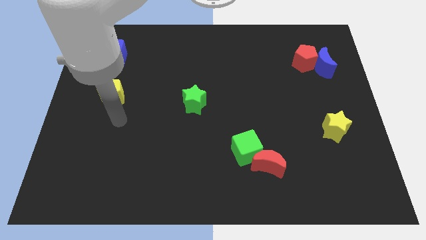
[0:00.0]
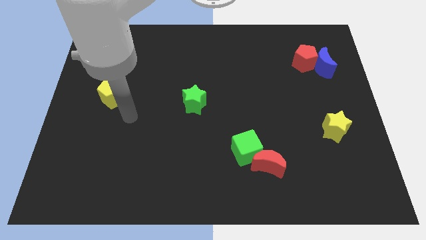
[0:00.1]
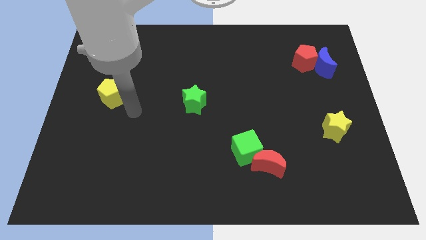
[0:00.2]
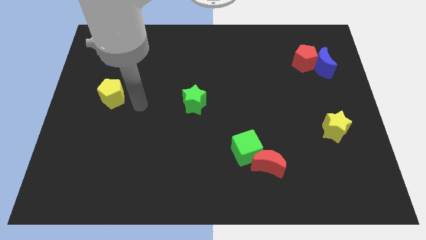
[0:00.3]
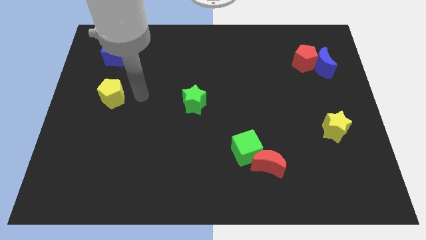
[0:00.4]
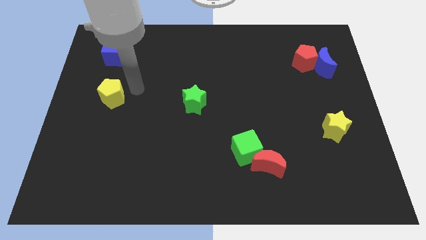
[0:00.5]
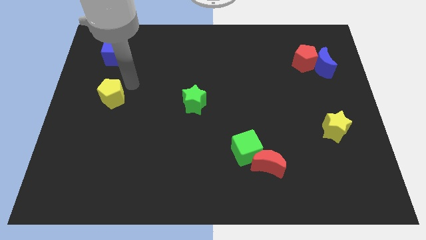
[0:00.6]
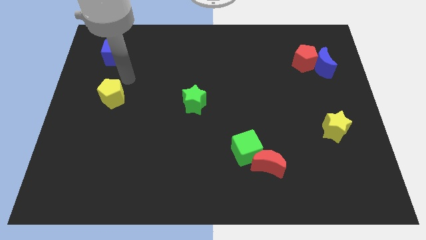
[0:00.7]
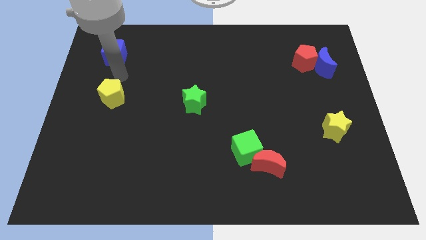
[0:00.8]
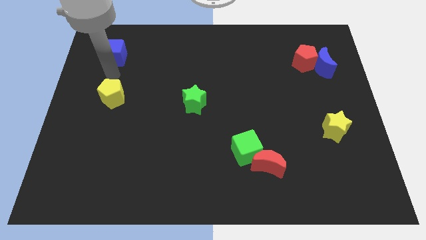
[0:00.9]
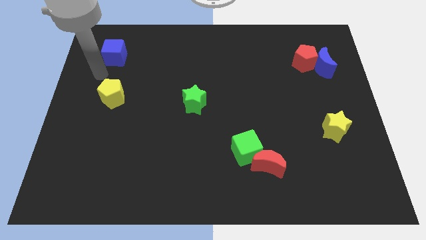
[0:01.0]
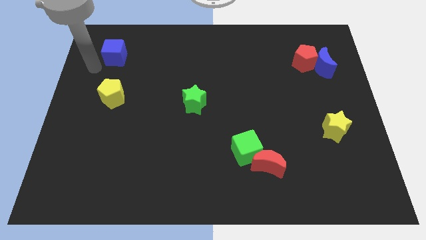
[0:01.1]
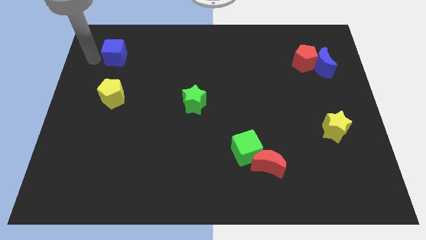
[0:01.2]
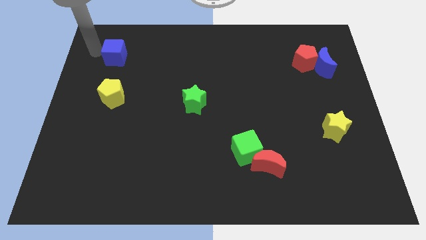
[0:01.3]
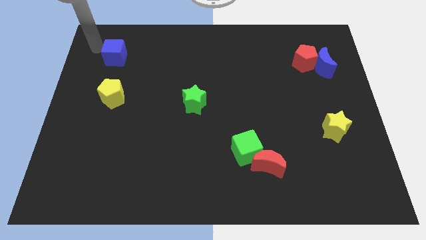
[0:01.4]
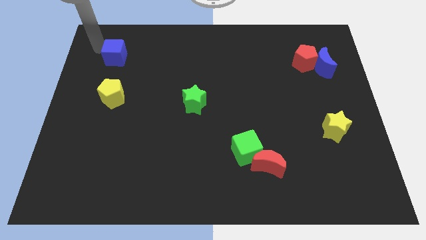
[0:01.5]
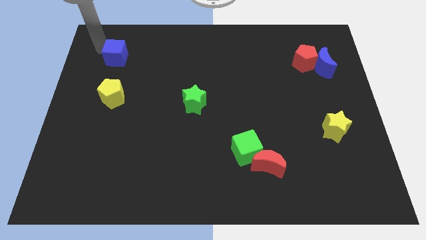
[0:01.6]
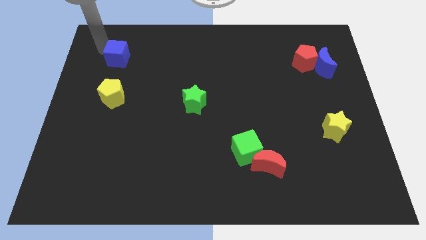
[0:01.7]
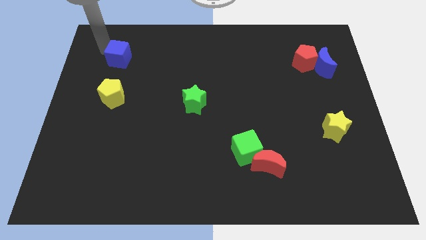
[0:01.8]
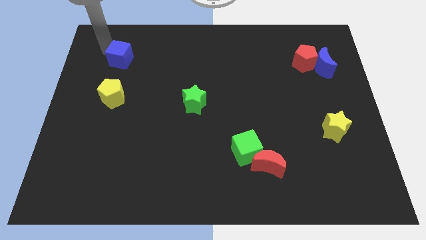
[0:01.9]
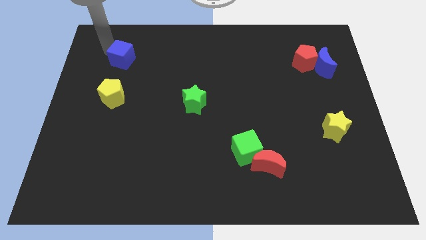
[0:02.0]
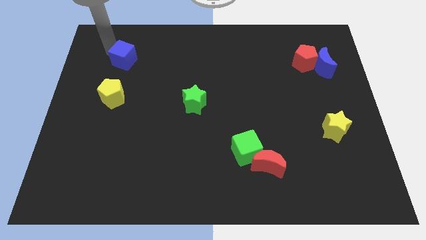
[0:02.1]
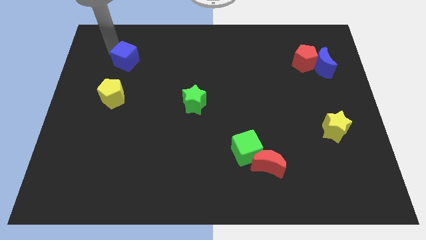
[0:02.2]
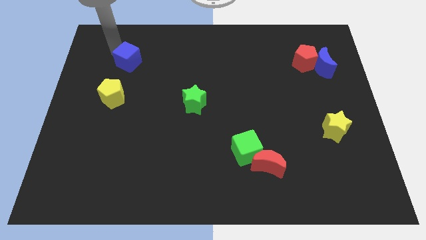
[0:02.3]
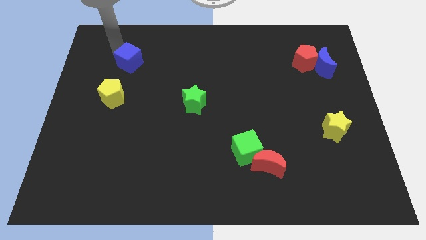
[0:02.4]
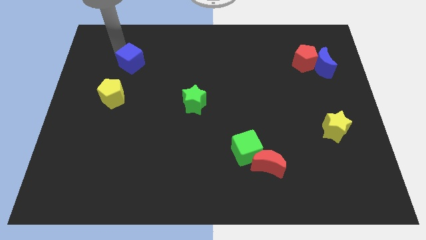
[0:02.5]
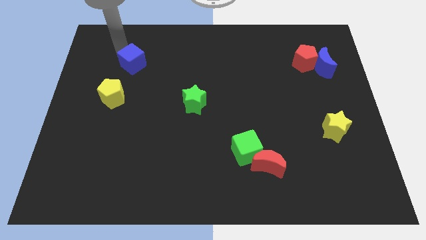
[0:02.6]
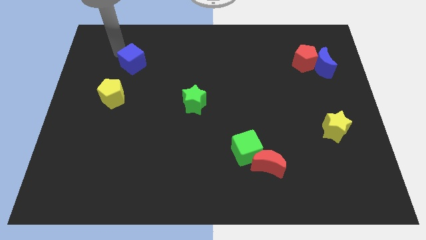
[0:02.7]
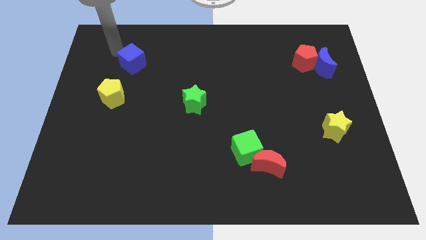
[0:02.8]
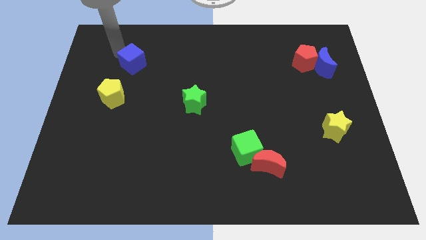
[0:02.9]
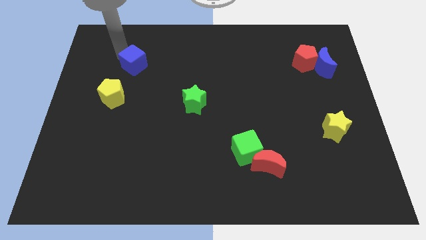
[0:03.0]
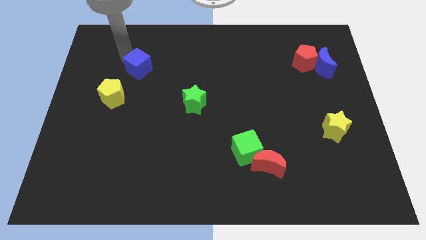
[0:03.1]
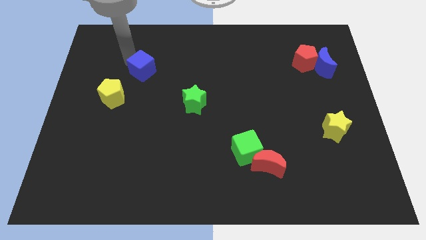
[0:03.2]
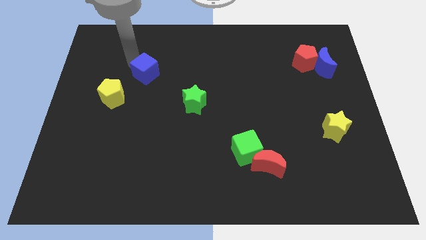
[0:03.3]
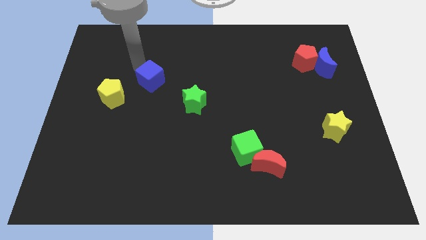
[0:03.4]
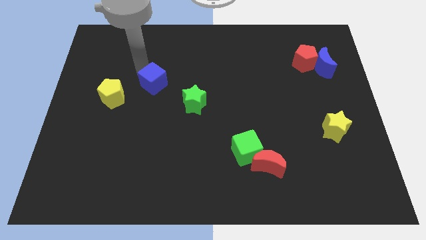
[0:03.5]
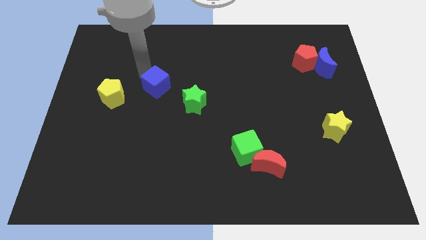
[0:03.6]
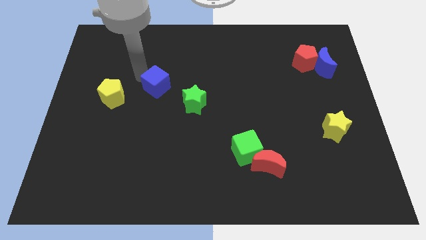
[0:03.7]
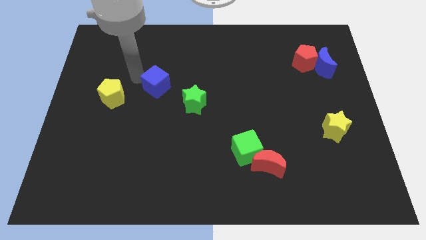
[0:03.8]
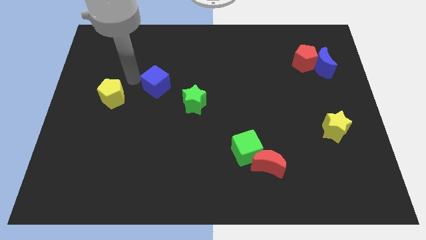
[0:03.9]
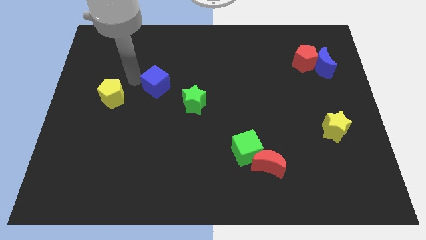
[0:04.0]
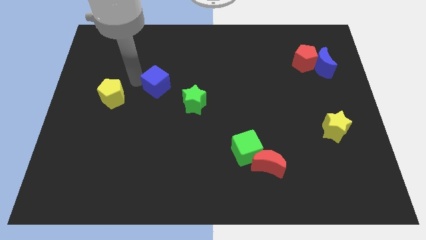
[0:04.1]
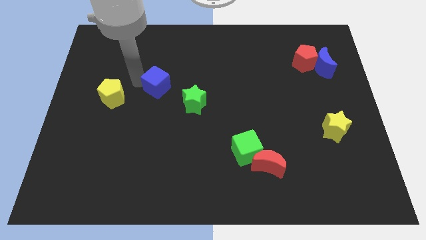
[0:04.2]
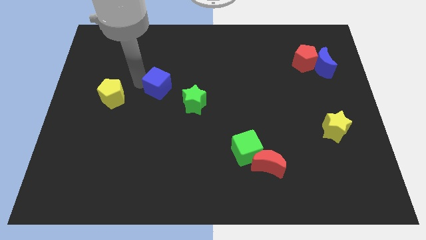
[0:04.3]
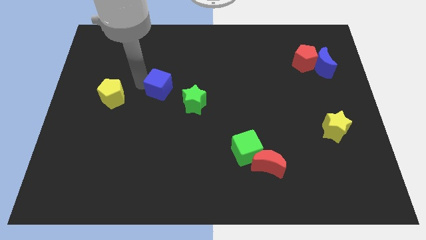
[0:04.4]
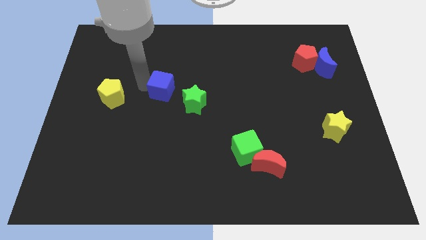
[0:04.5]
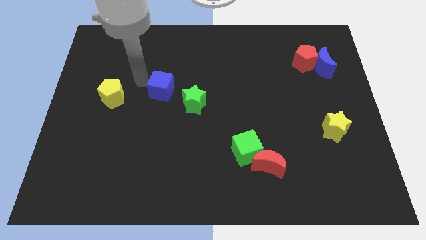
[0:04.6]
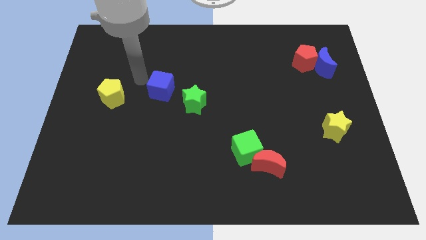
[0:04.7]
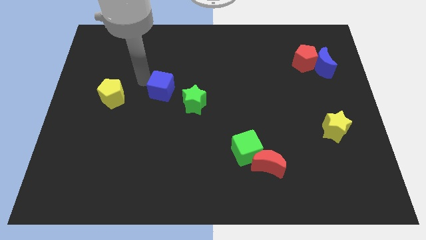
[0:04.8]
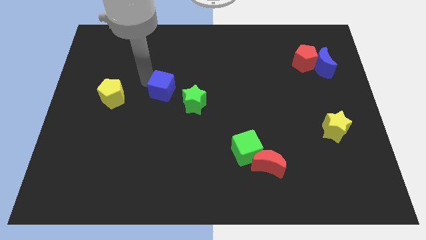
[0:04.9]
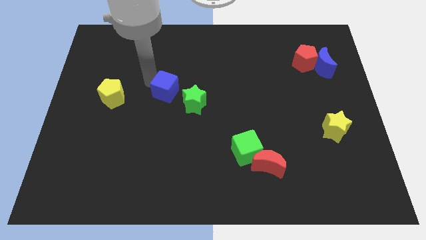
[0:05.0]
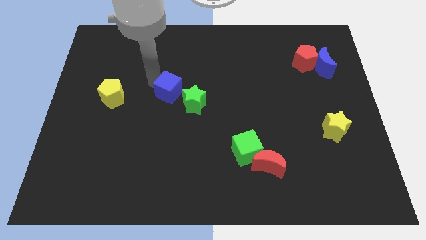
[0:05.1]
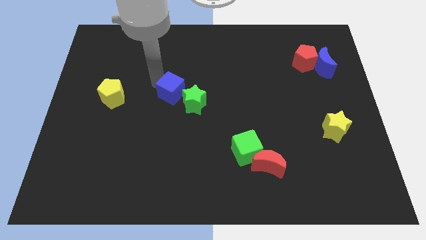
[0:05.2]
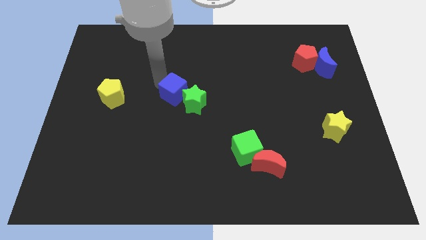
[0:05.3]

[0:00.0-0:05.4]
push the blue cube towards the green star

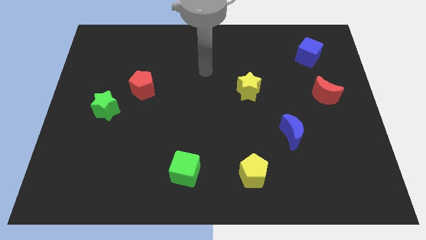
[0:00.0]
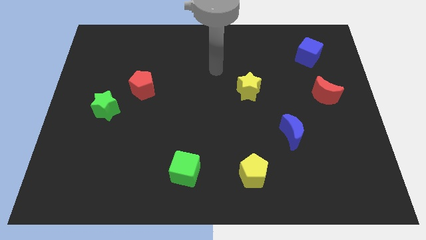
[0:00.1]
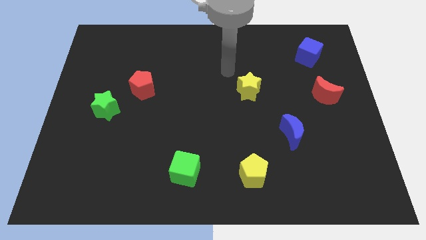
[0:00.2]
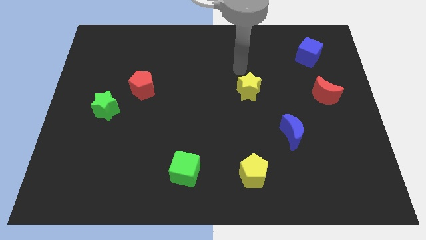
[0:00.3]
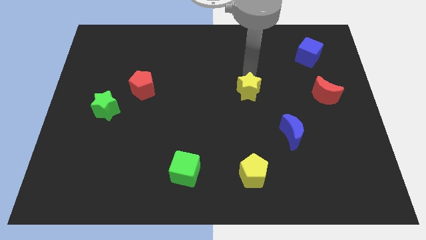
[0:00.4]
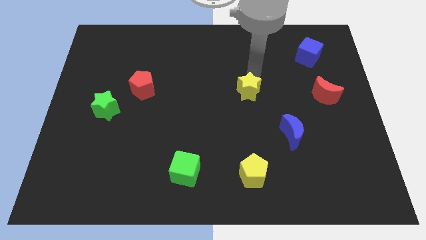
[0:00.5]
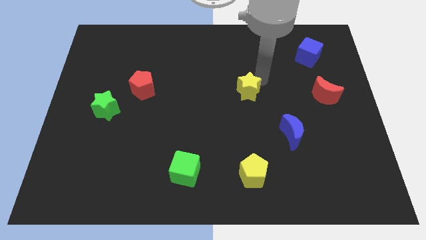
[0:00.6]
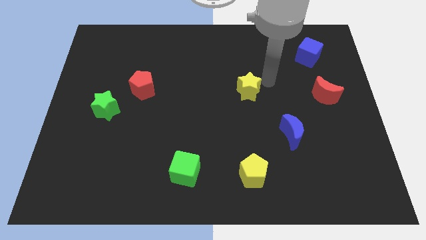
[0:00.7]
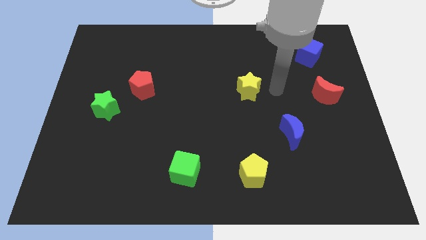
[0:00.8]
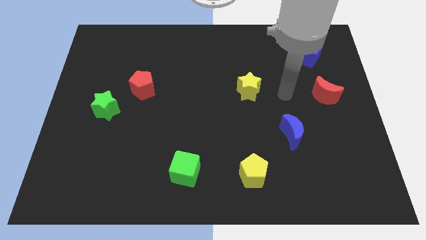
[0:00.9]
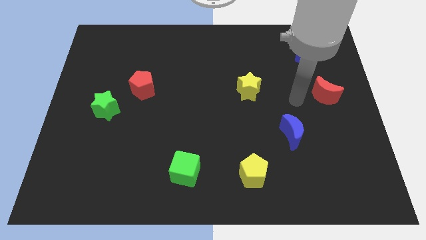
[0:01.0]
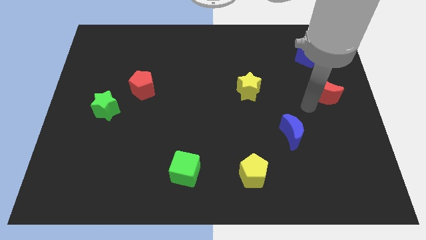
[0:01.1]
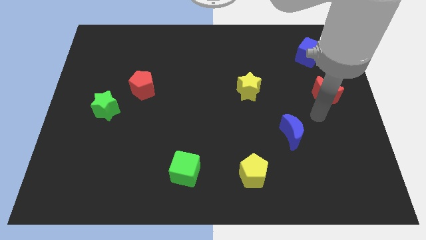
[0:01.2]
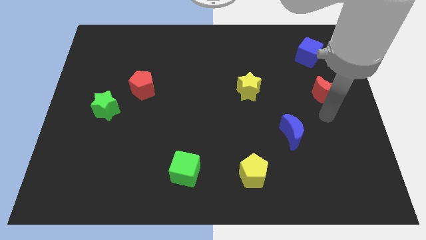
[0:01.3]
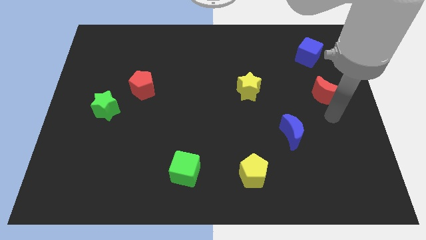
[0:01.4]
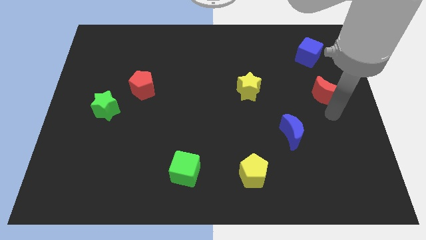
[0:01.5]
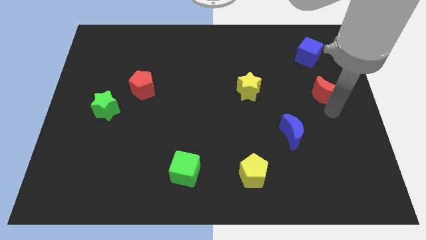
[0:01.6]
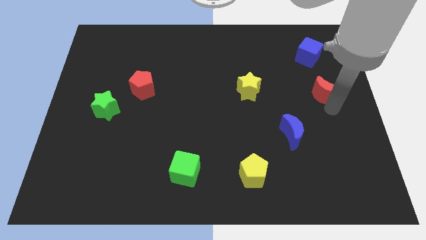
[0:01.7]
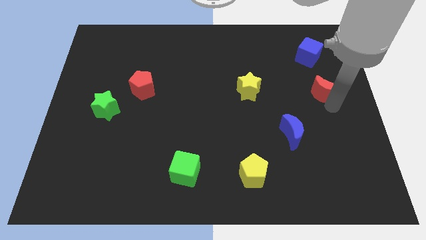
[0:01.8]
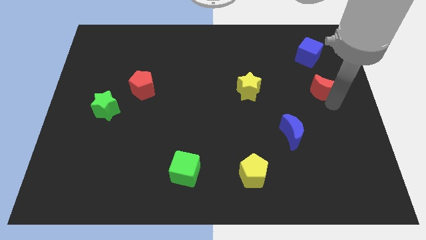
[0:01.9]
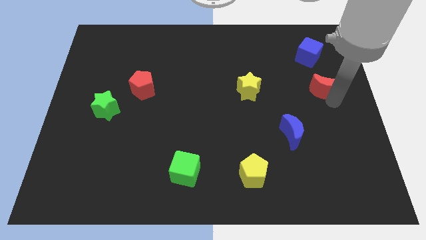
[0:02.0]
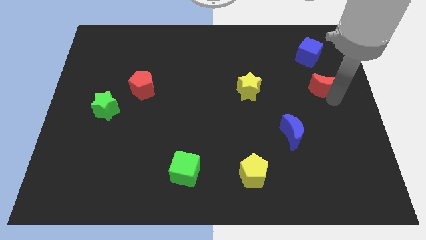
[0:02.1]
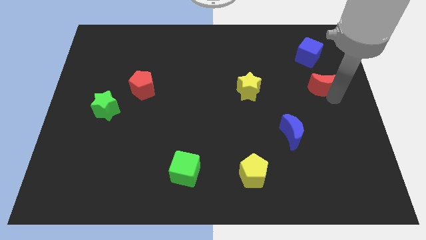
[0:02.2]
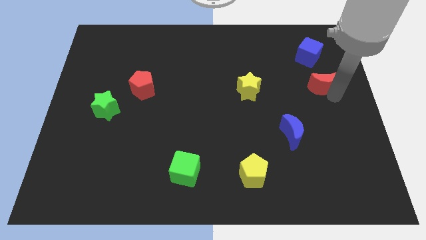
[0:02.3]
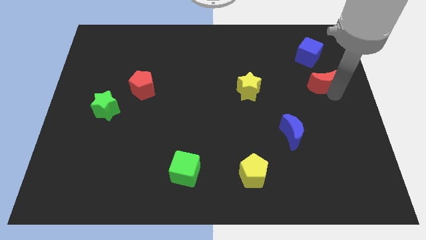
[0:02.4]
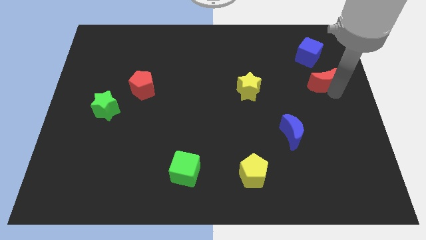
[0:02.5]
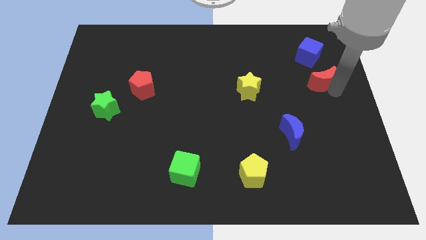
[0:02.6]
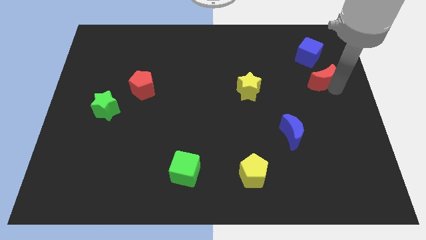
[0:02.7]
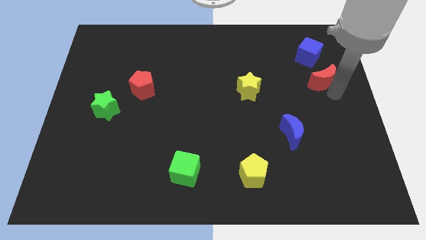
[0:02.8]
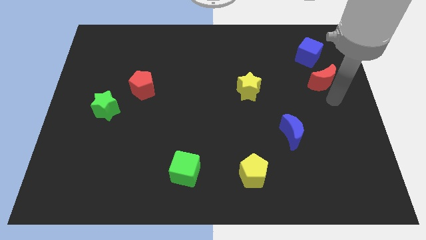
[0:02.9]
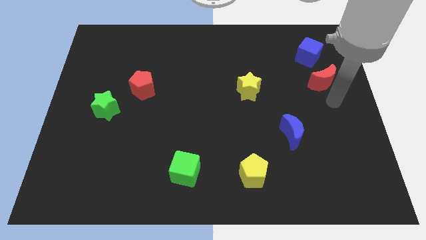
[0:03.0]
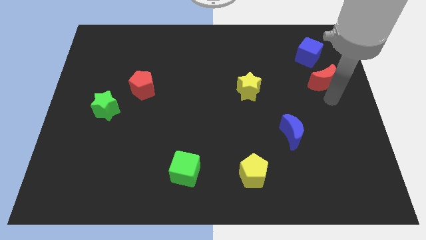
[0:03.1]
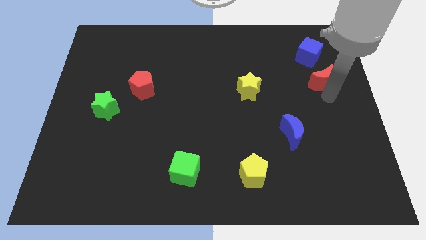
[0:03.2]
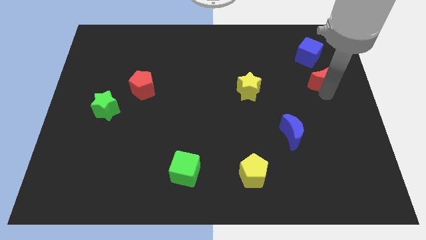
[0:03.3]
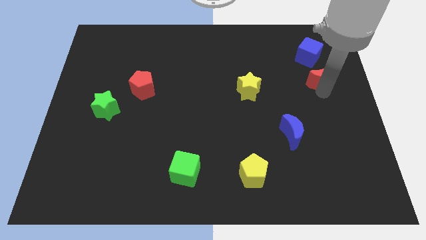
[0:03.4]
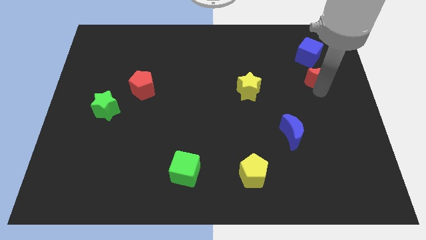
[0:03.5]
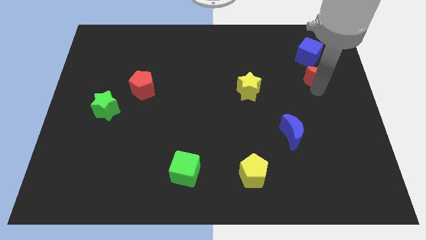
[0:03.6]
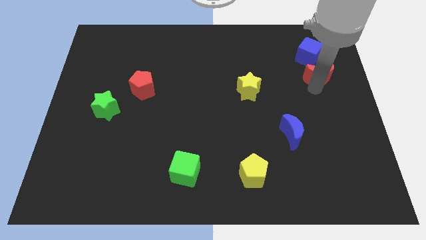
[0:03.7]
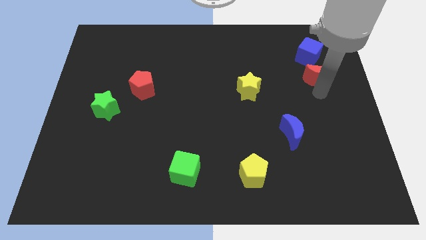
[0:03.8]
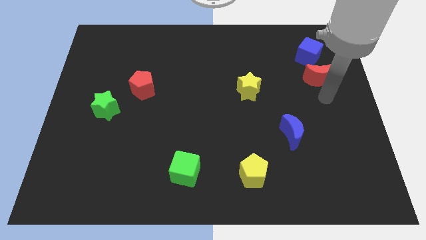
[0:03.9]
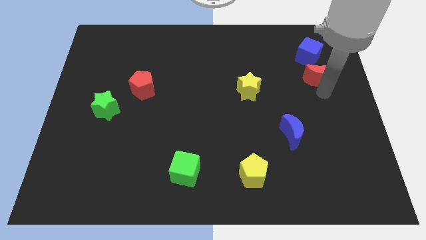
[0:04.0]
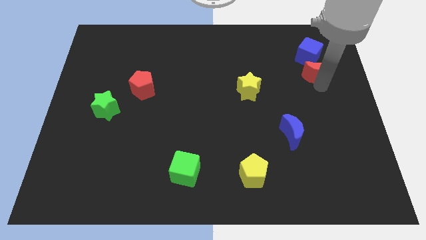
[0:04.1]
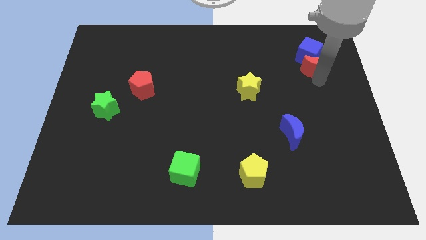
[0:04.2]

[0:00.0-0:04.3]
move the red moon close to the blue cube
